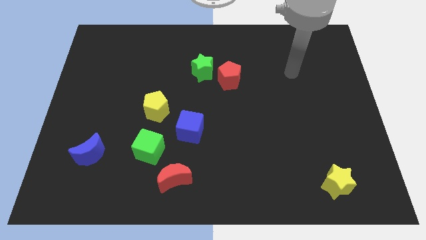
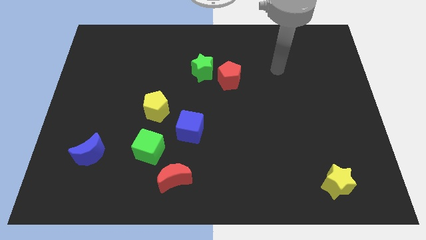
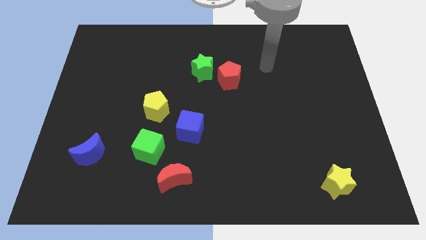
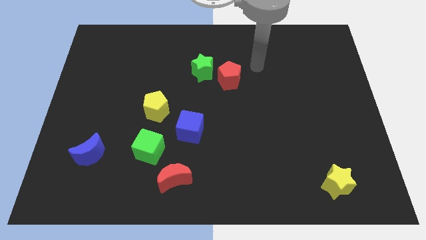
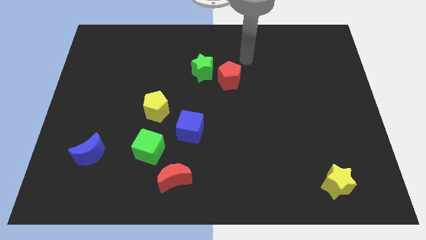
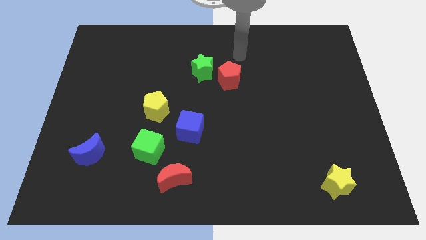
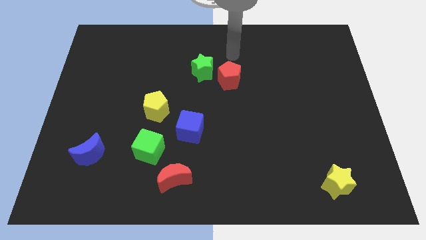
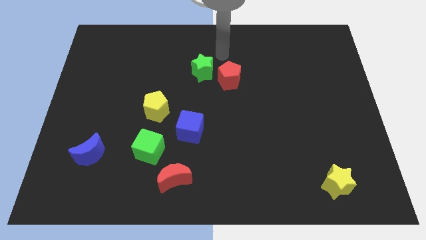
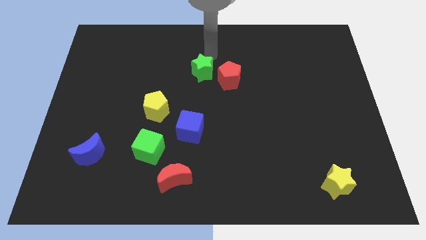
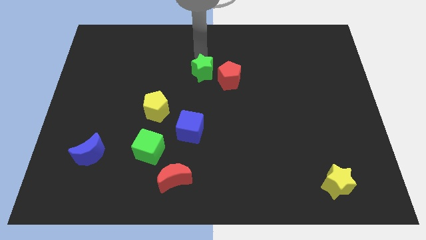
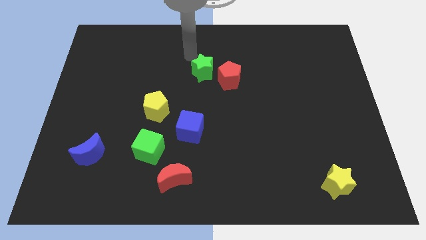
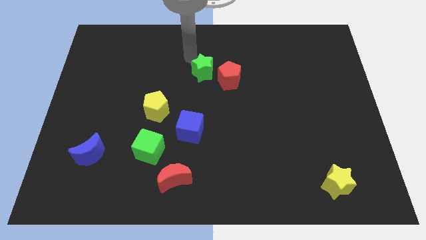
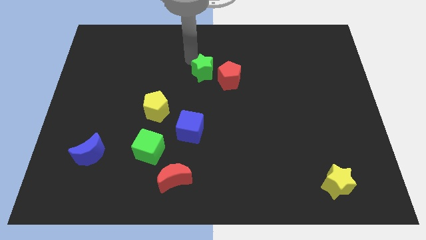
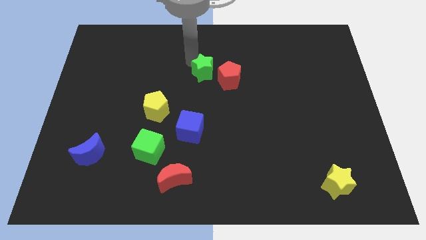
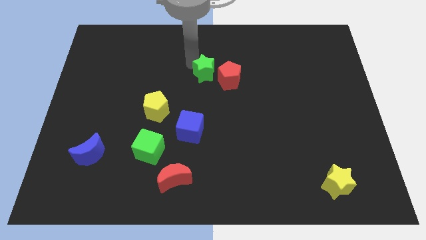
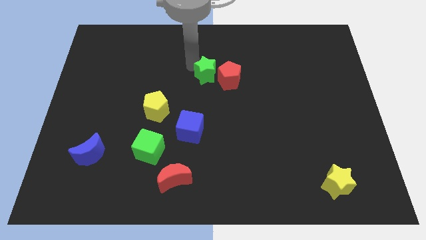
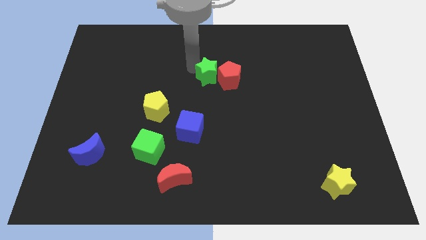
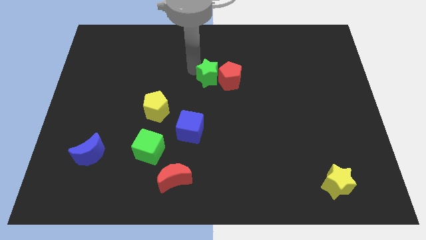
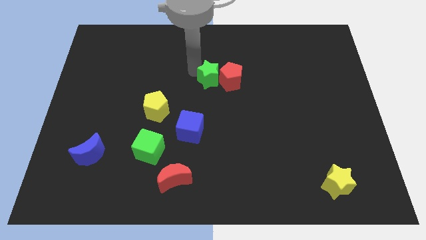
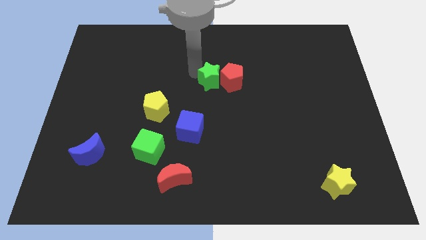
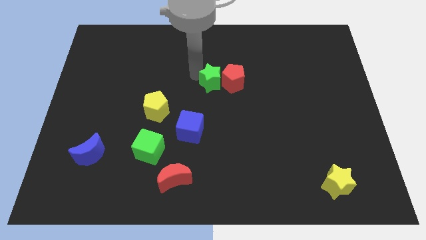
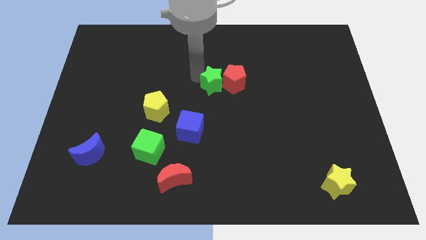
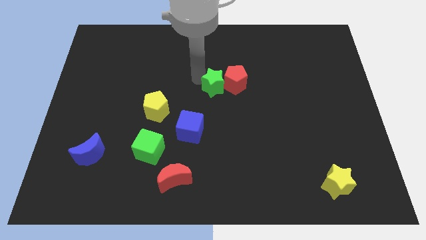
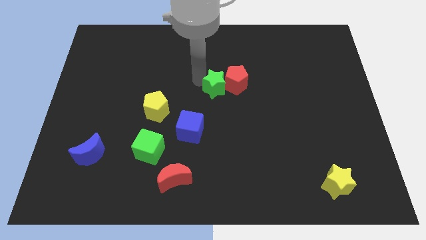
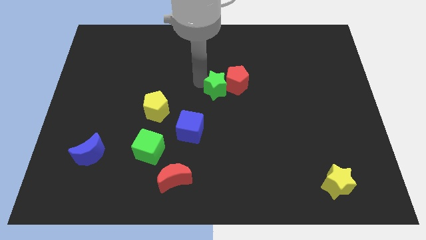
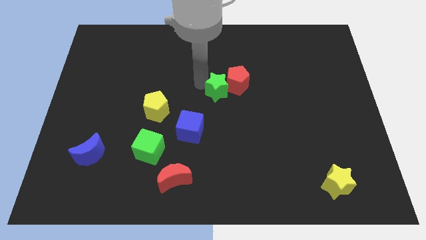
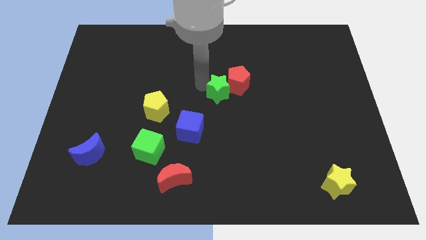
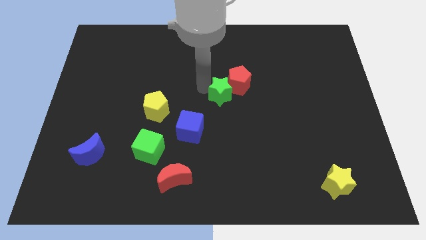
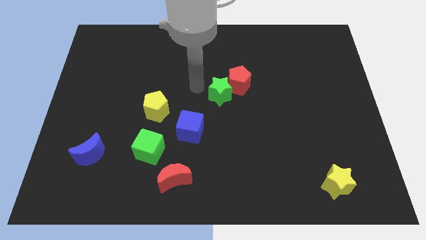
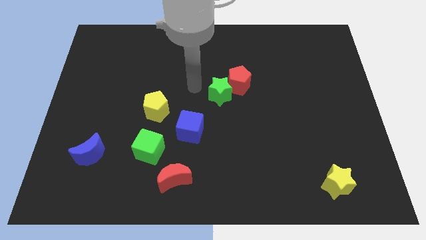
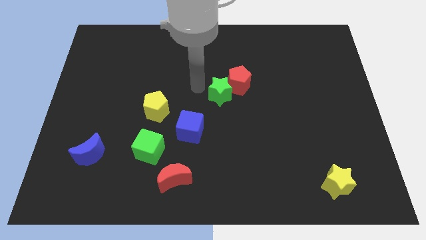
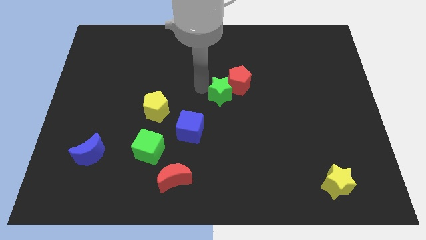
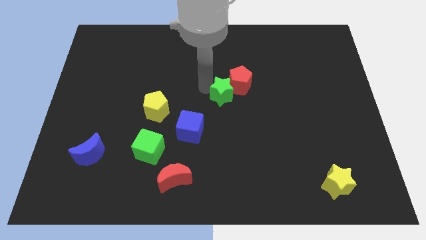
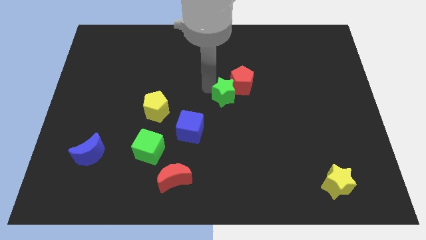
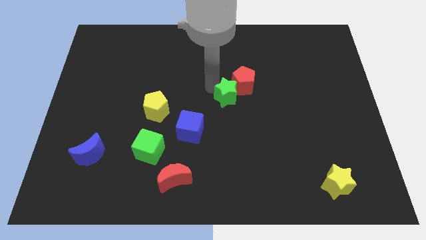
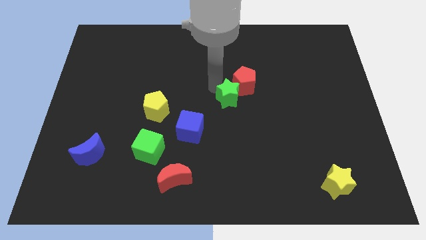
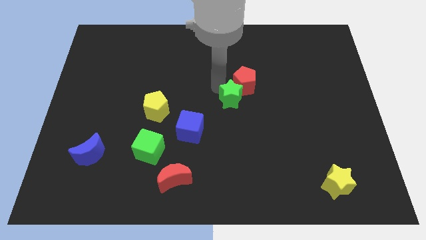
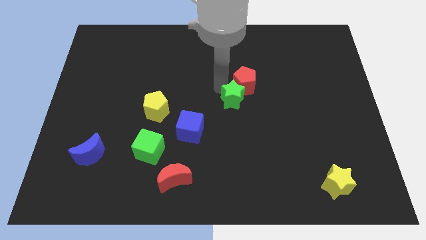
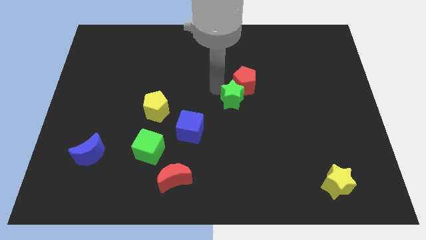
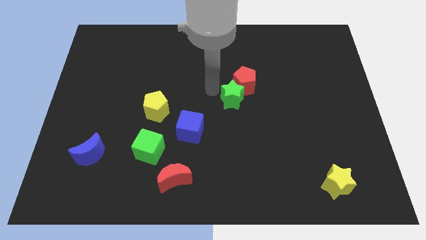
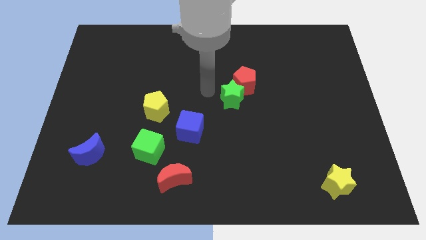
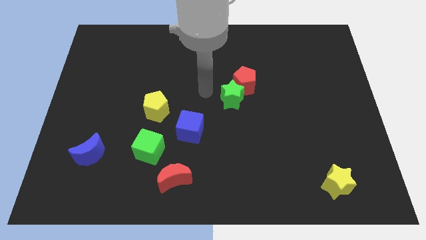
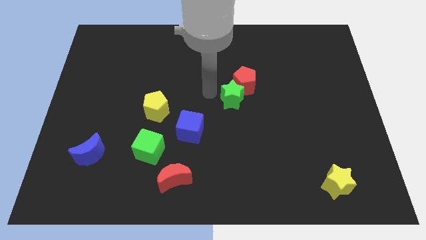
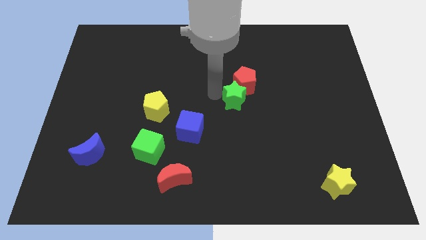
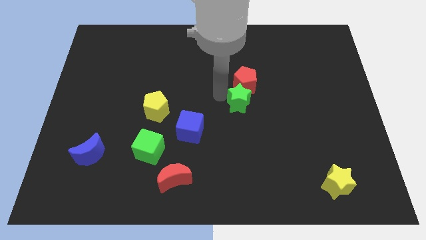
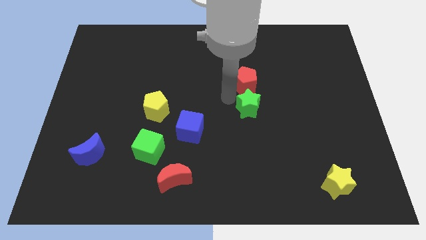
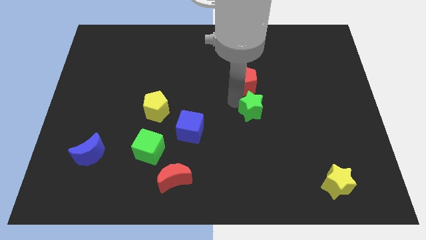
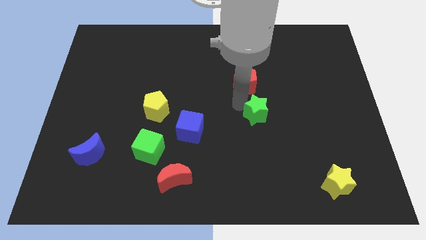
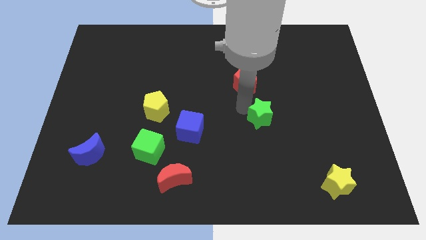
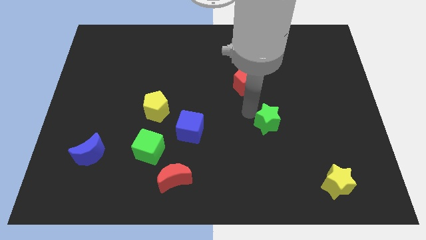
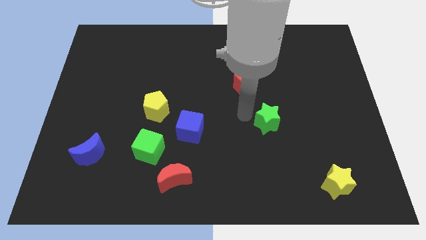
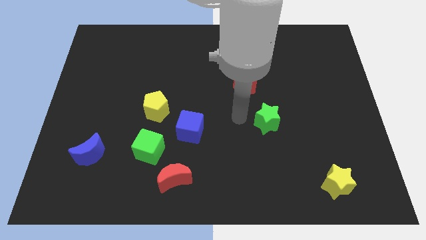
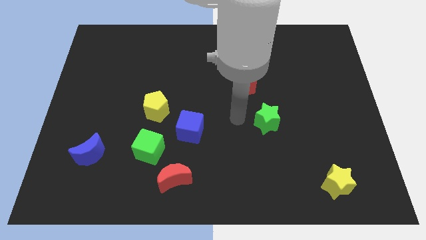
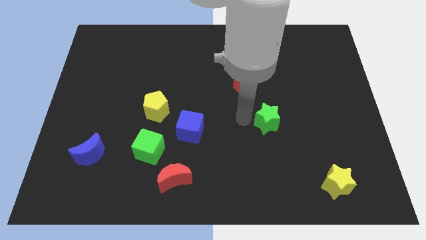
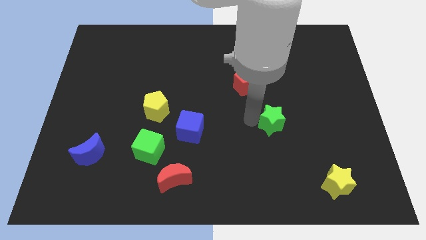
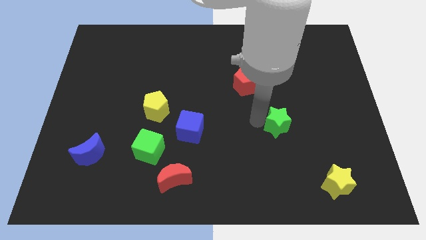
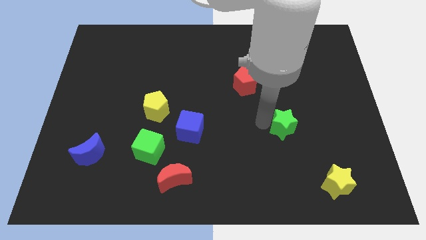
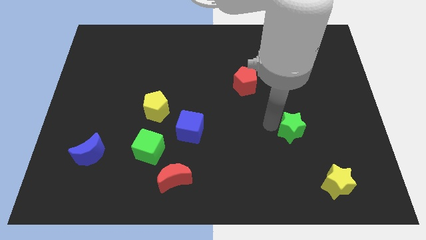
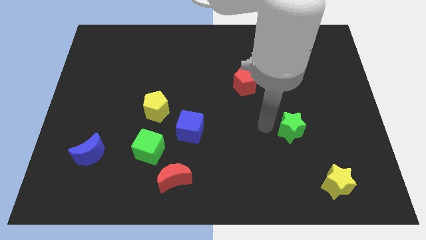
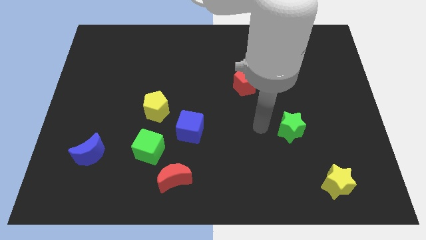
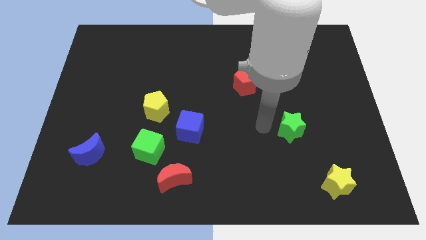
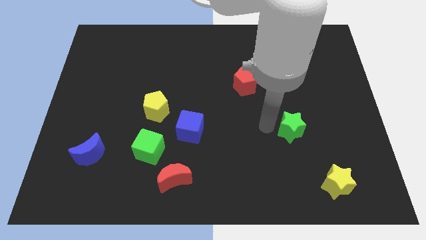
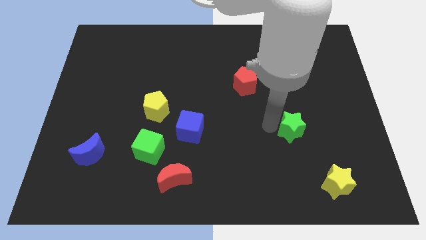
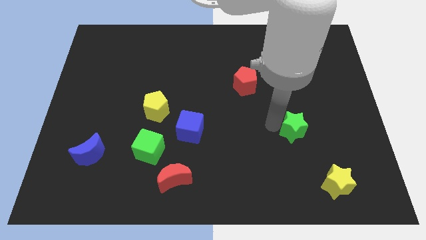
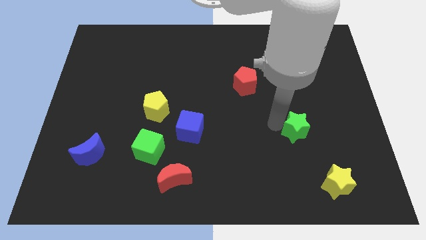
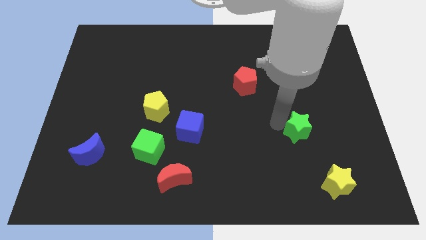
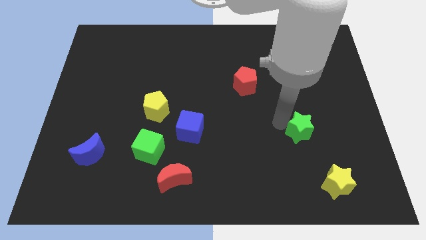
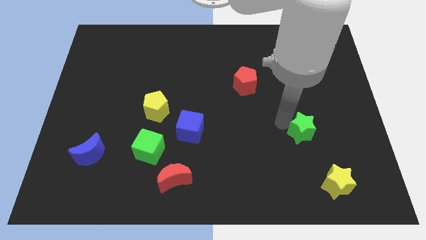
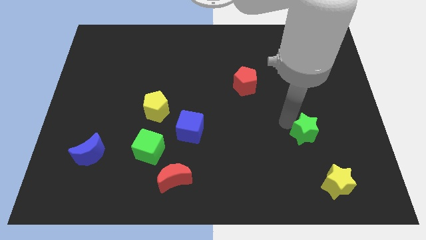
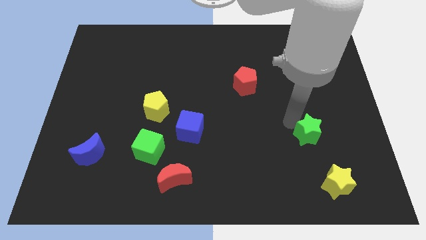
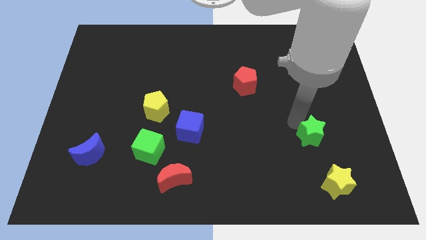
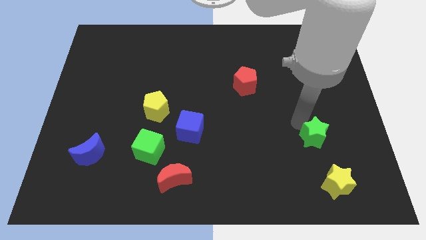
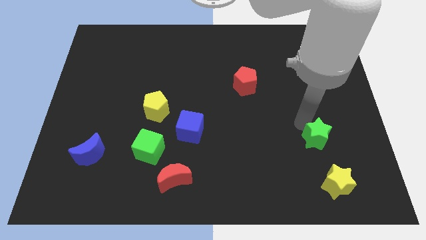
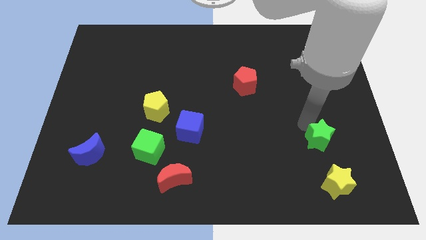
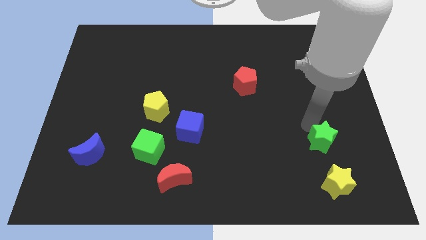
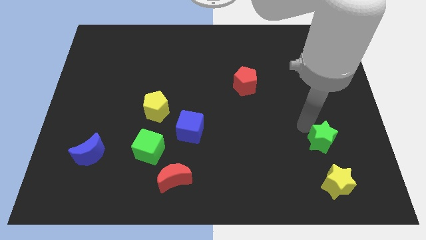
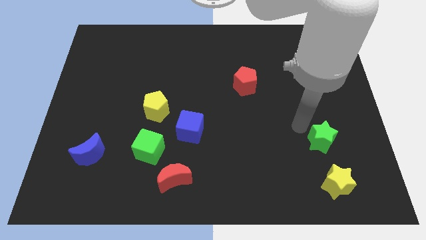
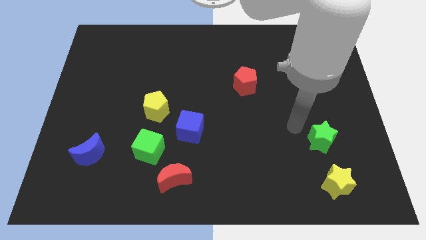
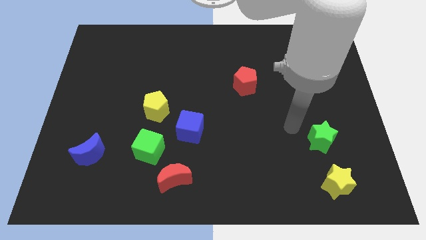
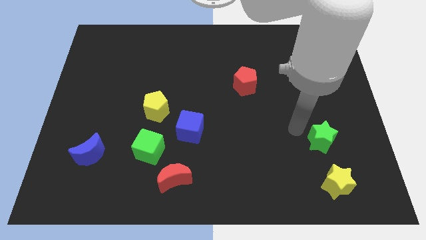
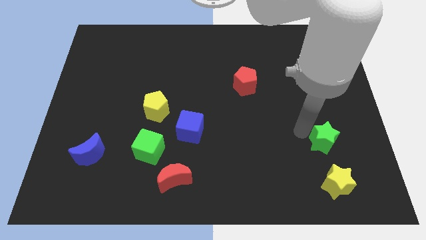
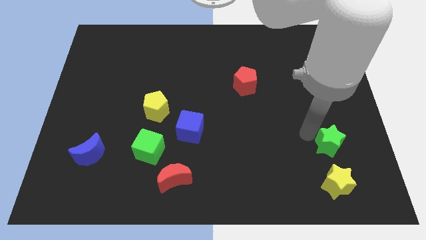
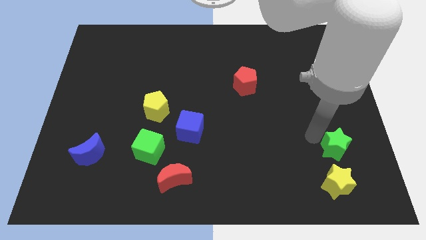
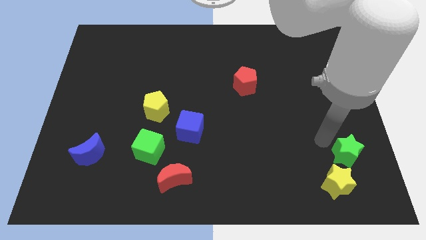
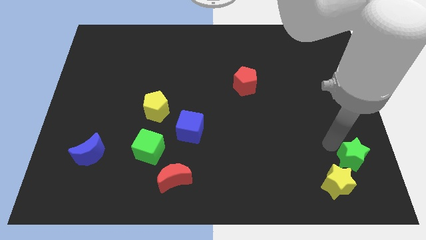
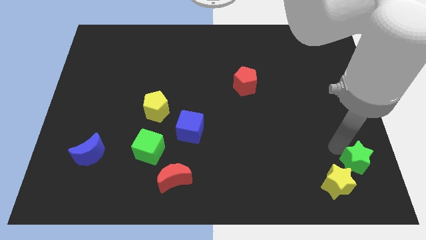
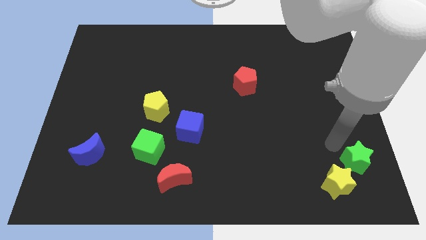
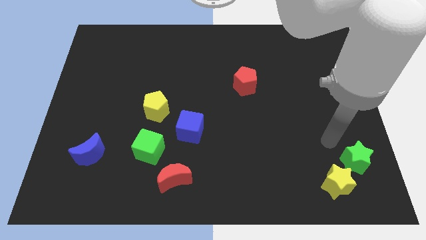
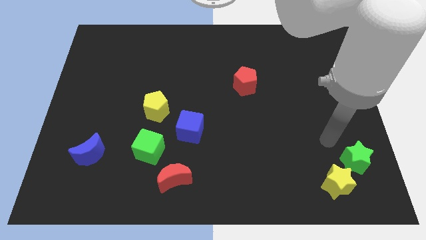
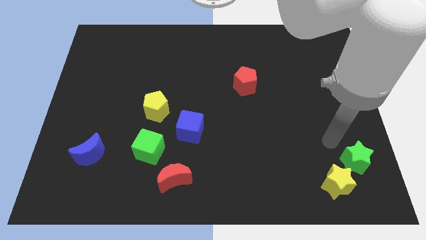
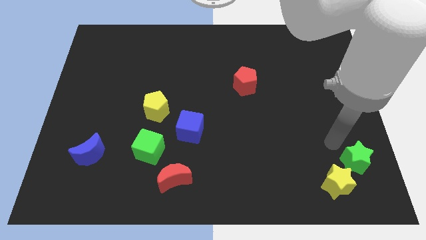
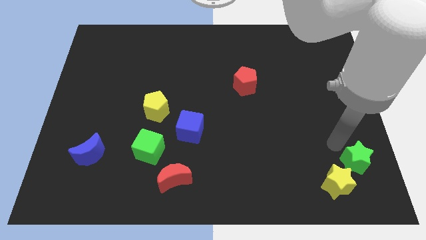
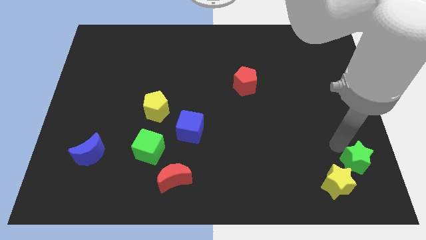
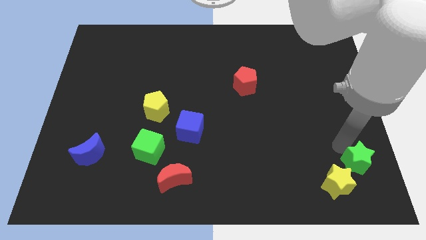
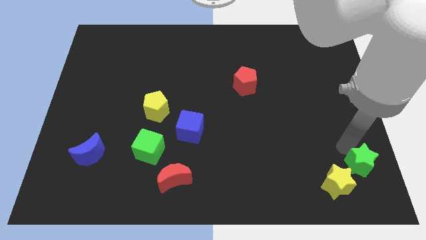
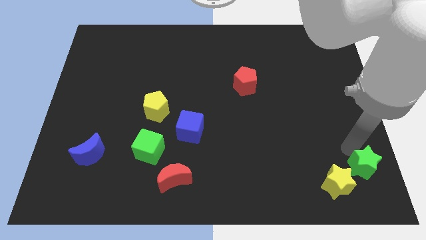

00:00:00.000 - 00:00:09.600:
put the green star to the bottom right of the board
